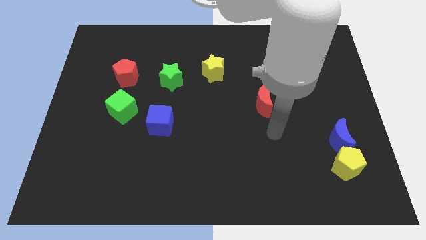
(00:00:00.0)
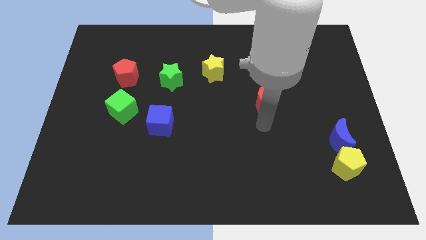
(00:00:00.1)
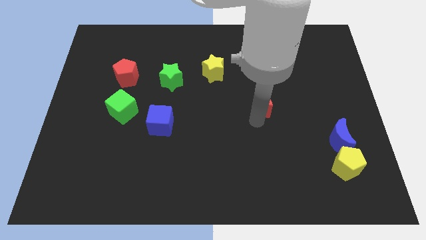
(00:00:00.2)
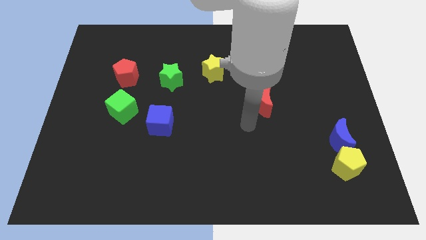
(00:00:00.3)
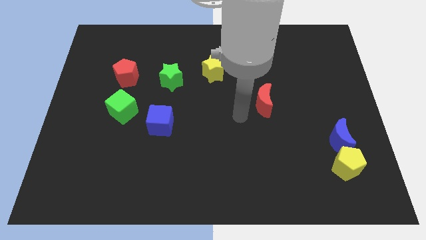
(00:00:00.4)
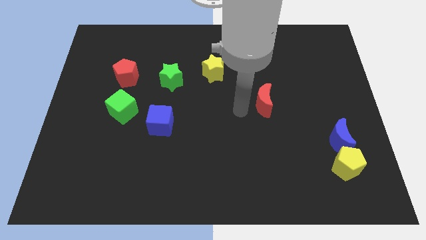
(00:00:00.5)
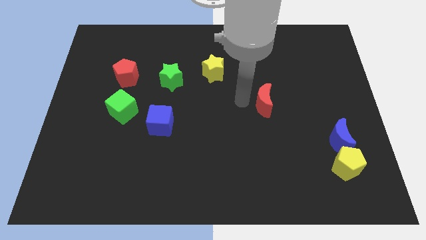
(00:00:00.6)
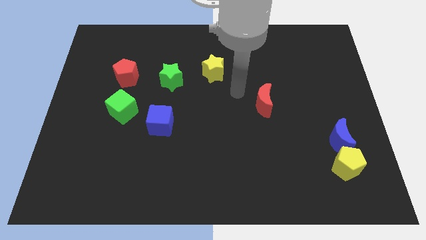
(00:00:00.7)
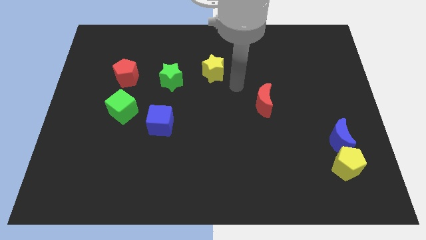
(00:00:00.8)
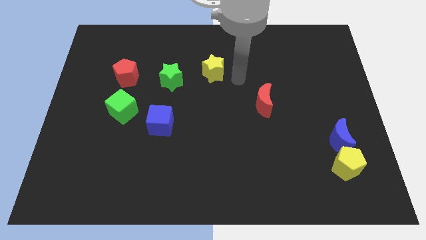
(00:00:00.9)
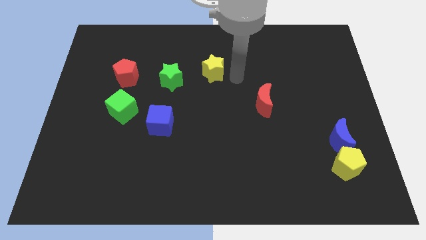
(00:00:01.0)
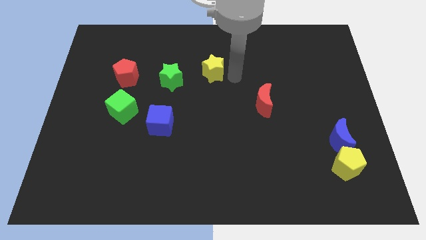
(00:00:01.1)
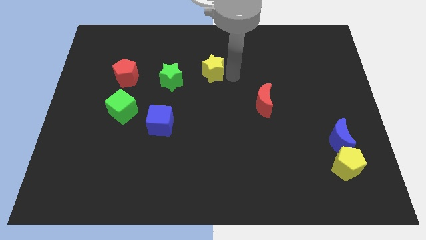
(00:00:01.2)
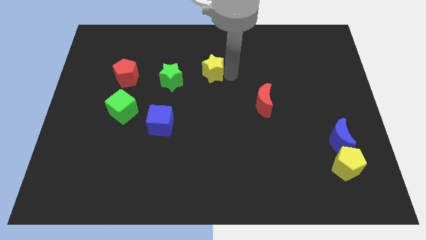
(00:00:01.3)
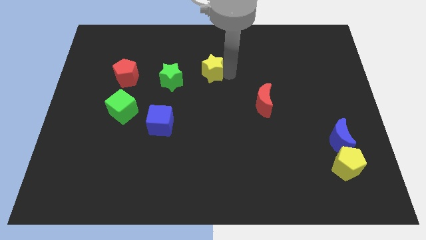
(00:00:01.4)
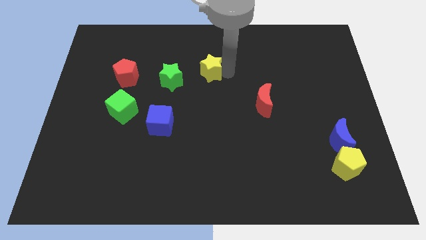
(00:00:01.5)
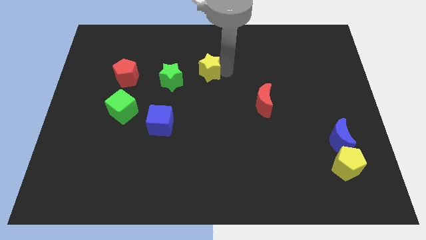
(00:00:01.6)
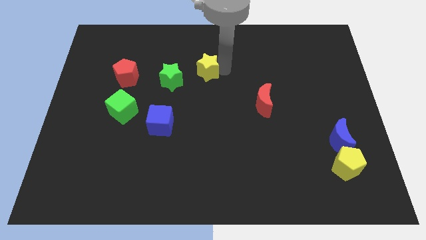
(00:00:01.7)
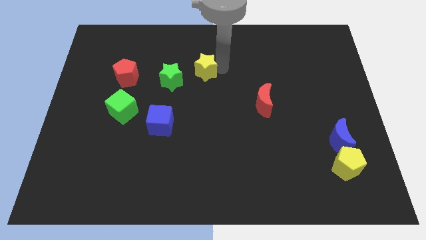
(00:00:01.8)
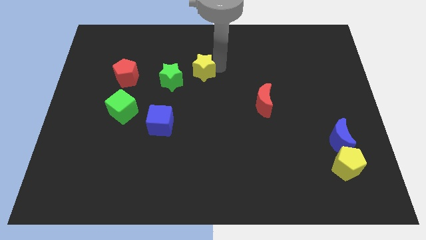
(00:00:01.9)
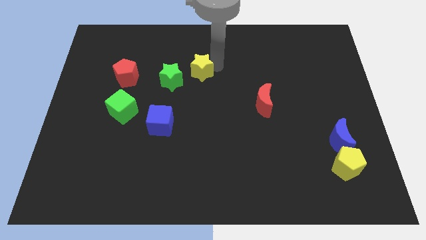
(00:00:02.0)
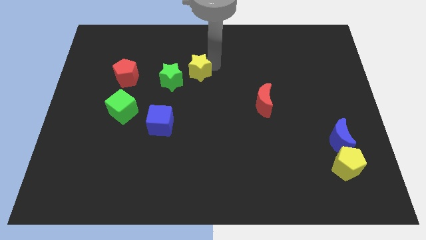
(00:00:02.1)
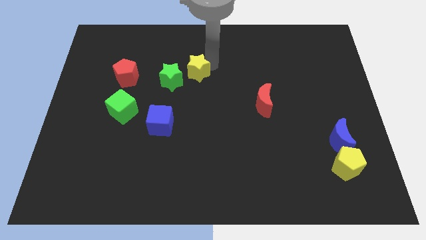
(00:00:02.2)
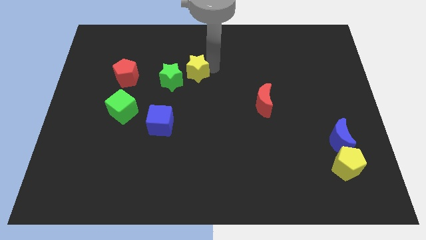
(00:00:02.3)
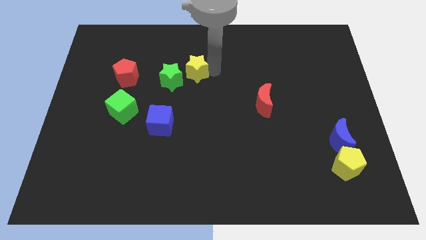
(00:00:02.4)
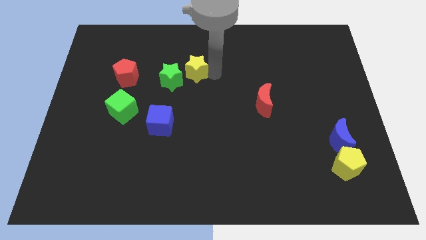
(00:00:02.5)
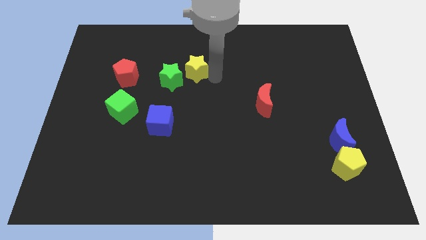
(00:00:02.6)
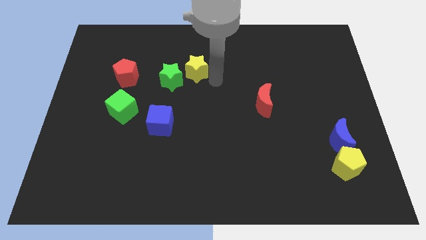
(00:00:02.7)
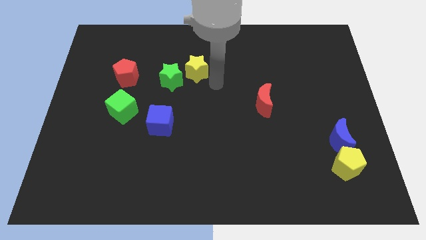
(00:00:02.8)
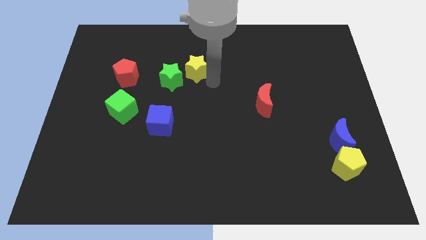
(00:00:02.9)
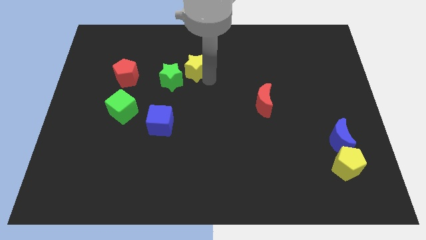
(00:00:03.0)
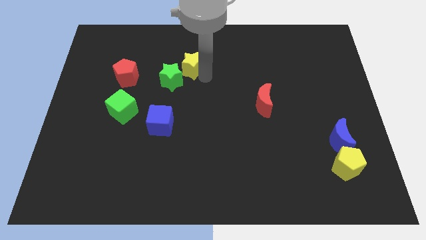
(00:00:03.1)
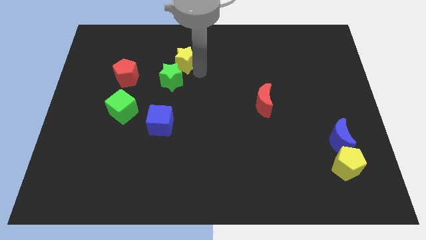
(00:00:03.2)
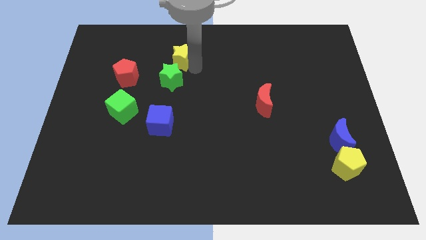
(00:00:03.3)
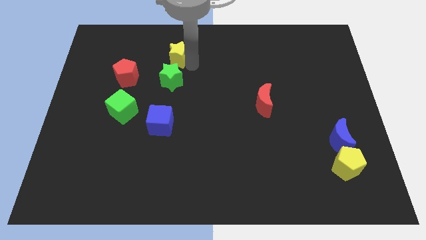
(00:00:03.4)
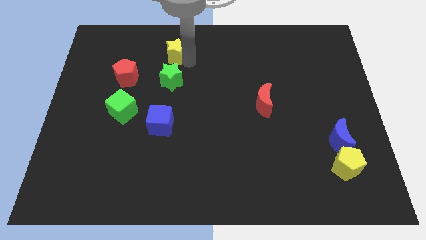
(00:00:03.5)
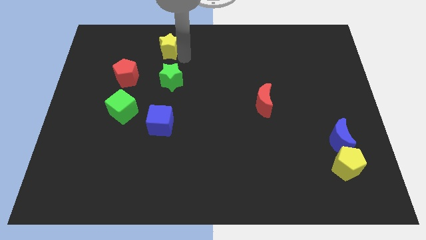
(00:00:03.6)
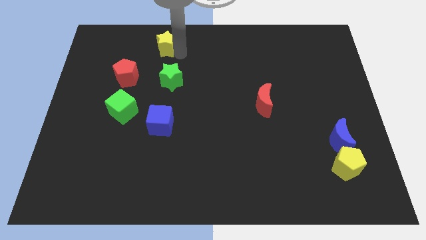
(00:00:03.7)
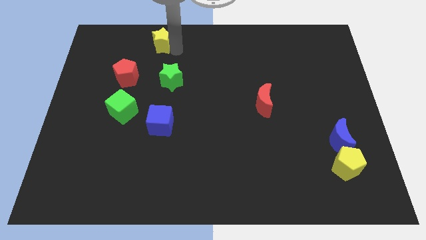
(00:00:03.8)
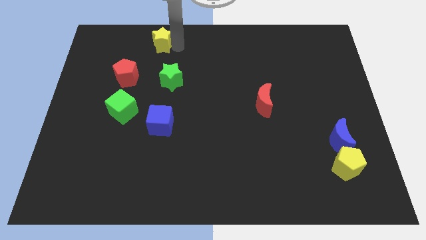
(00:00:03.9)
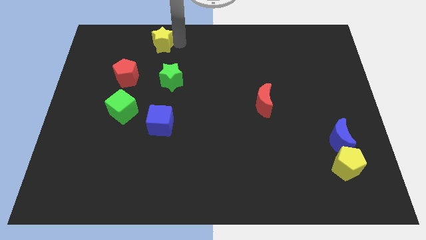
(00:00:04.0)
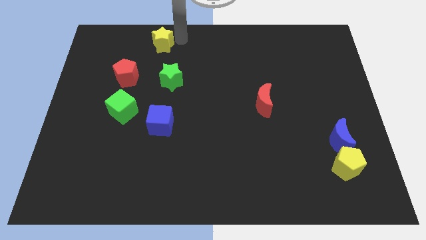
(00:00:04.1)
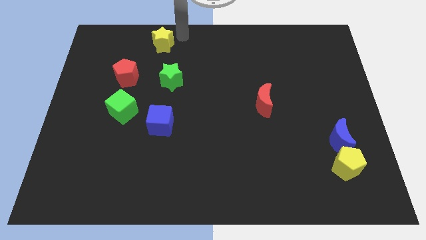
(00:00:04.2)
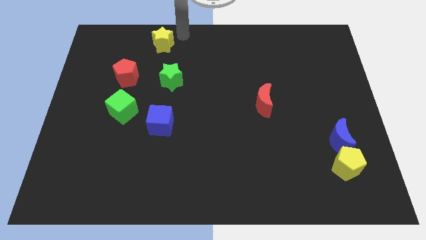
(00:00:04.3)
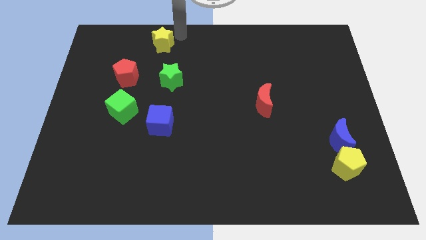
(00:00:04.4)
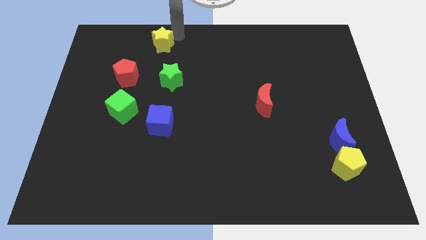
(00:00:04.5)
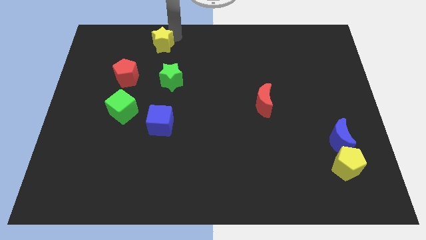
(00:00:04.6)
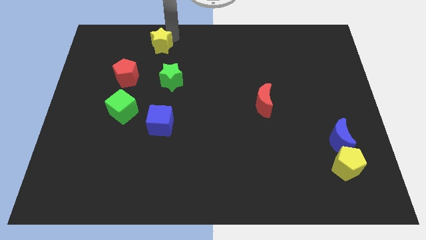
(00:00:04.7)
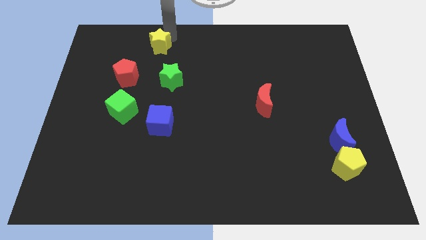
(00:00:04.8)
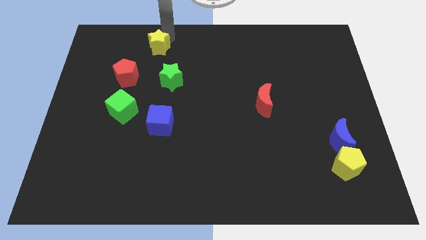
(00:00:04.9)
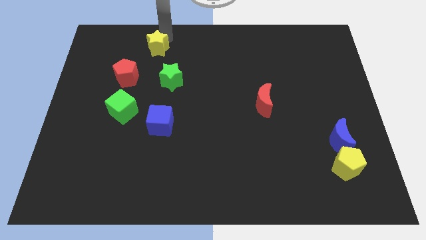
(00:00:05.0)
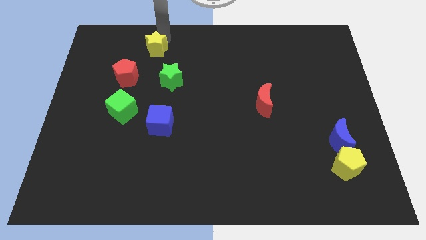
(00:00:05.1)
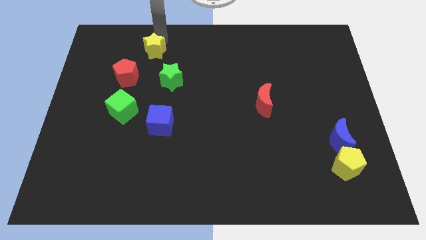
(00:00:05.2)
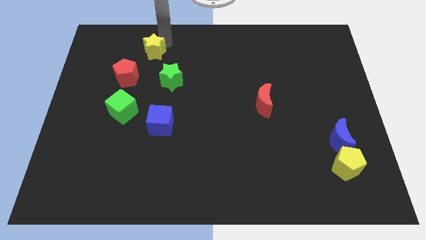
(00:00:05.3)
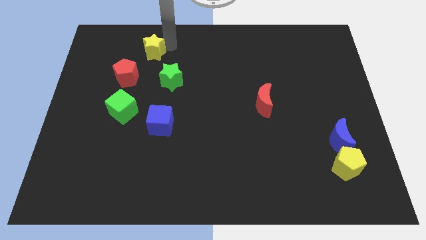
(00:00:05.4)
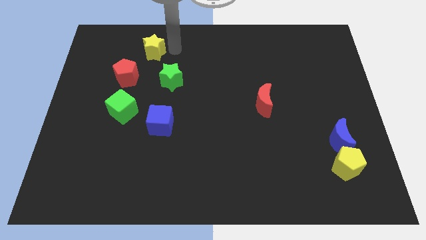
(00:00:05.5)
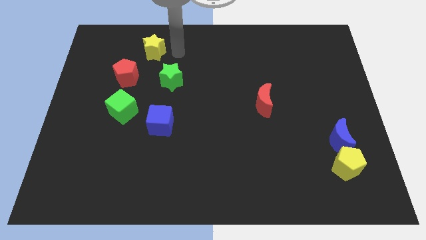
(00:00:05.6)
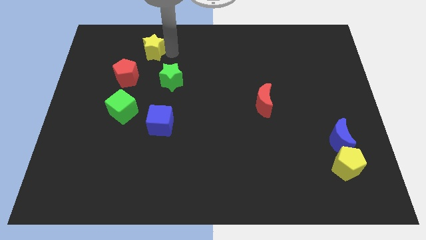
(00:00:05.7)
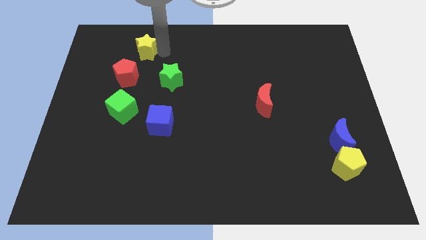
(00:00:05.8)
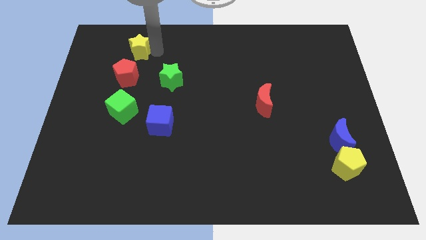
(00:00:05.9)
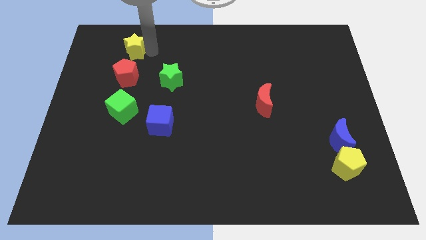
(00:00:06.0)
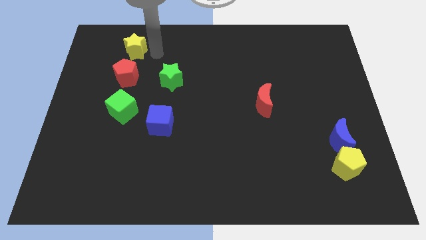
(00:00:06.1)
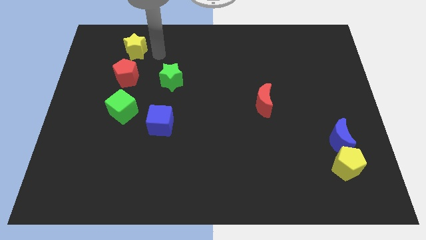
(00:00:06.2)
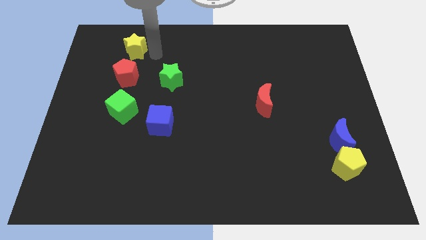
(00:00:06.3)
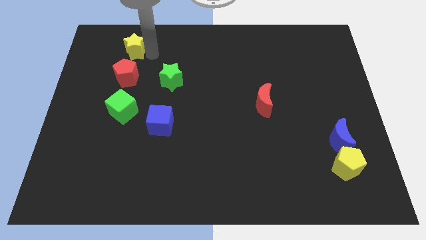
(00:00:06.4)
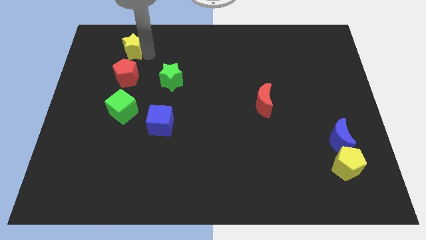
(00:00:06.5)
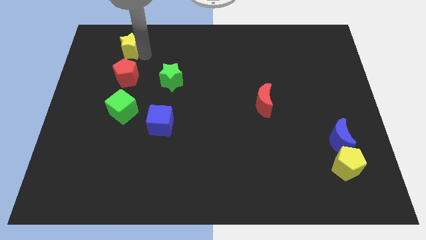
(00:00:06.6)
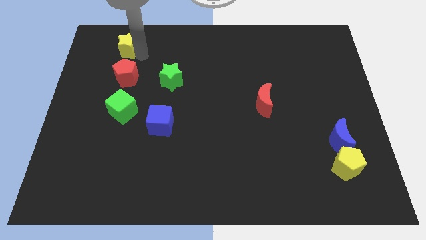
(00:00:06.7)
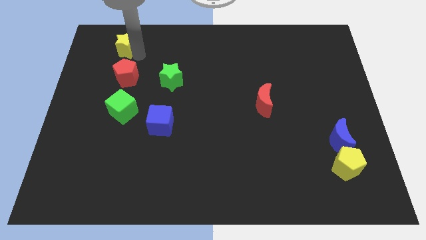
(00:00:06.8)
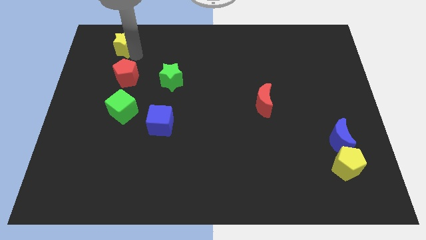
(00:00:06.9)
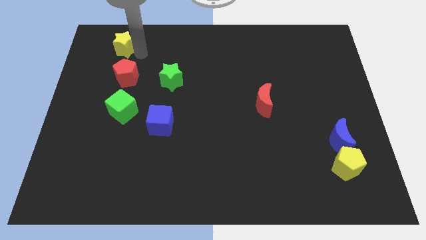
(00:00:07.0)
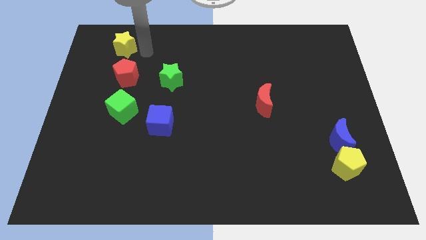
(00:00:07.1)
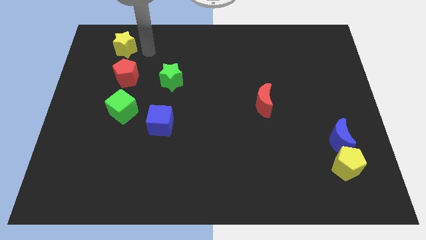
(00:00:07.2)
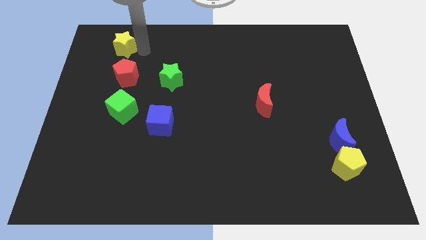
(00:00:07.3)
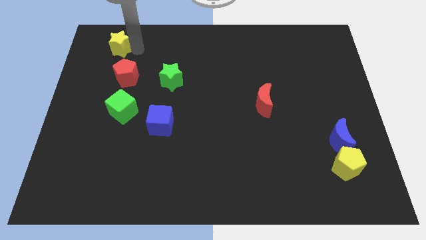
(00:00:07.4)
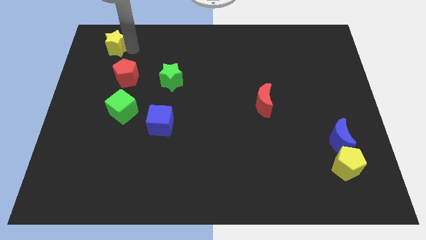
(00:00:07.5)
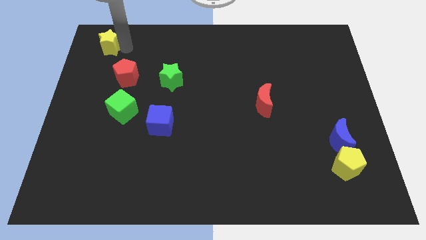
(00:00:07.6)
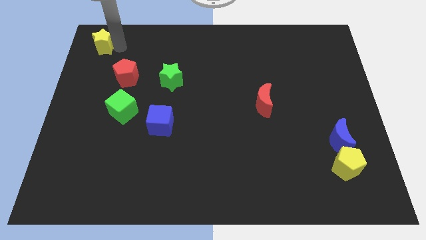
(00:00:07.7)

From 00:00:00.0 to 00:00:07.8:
move the yellow star to the top left corner
